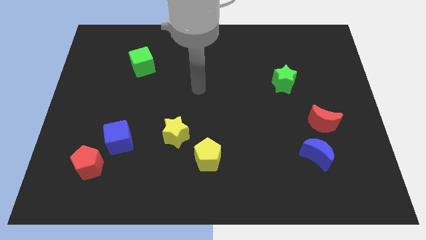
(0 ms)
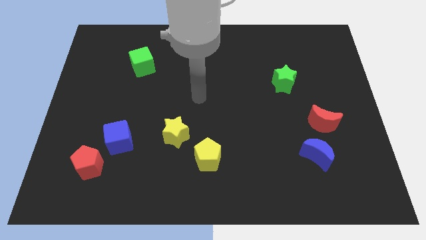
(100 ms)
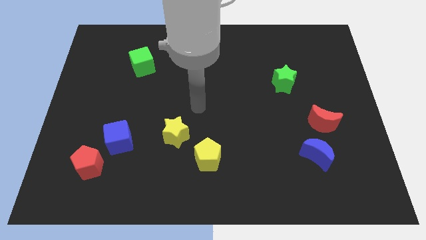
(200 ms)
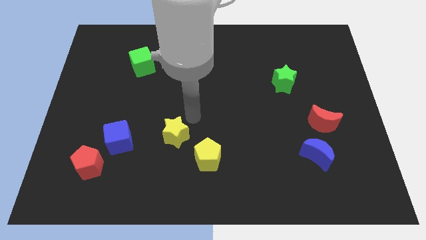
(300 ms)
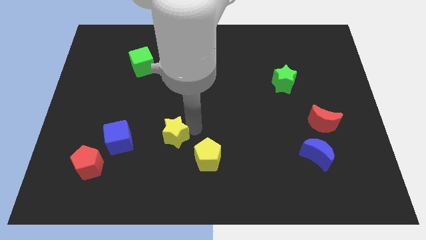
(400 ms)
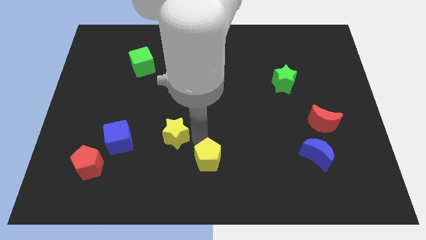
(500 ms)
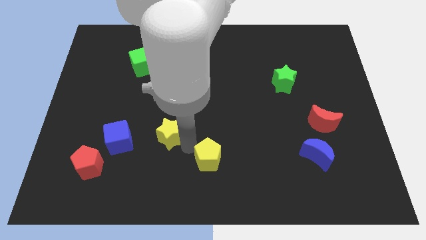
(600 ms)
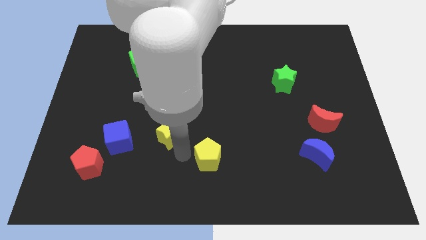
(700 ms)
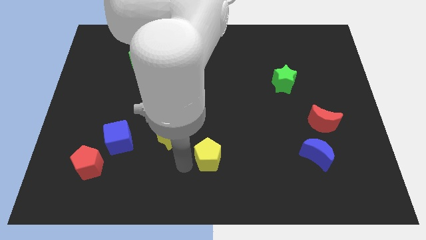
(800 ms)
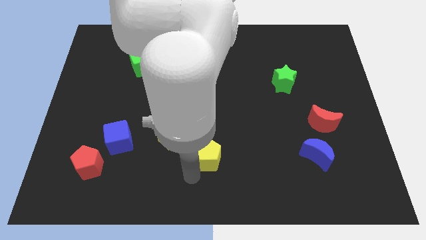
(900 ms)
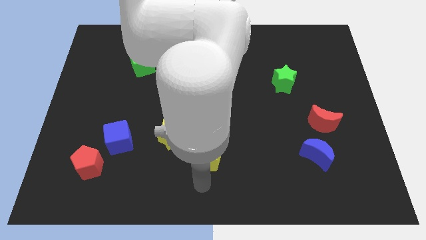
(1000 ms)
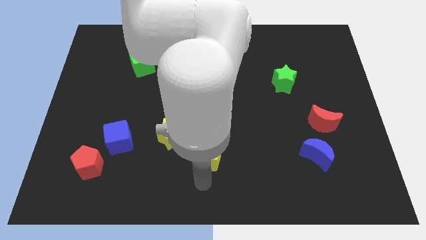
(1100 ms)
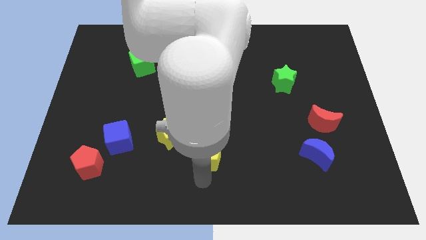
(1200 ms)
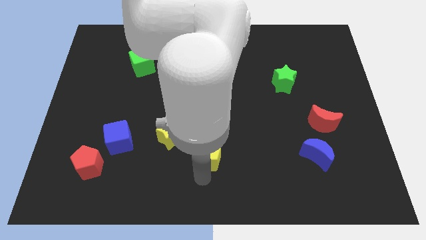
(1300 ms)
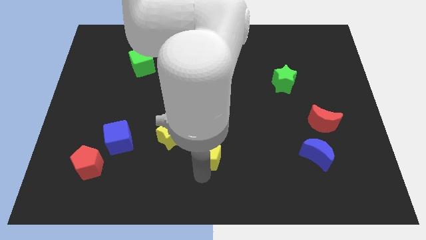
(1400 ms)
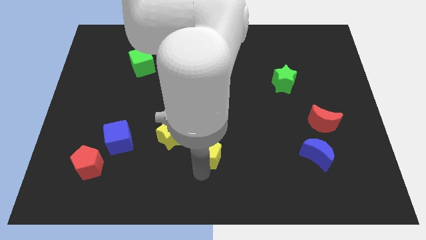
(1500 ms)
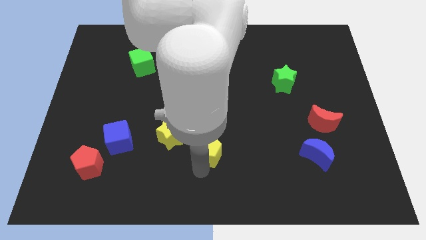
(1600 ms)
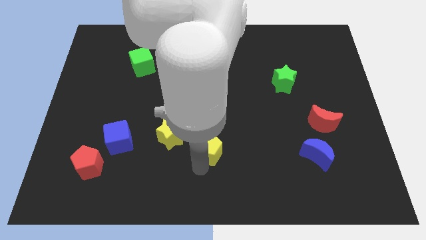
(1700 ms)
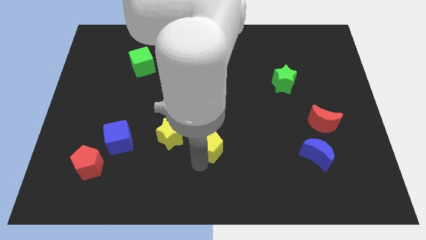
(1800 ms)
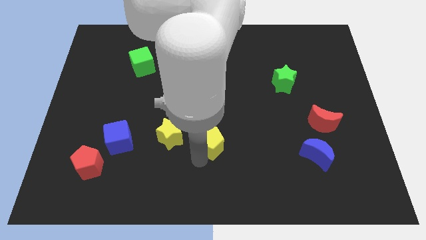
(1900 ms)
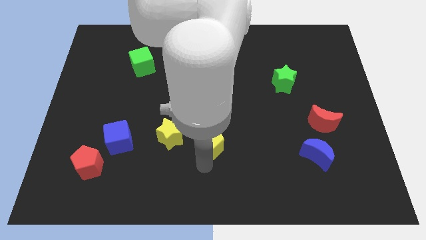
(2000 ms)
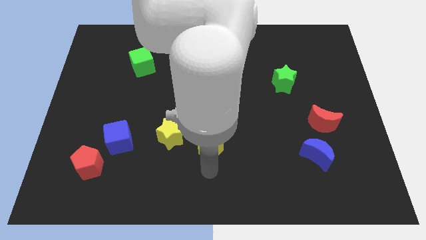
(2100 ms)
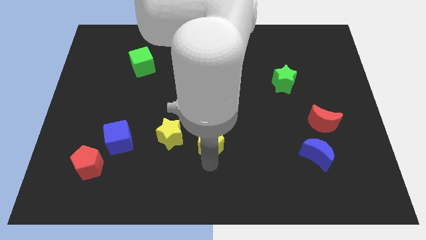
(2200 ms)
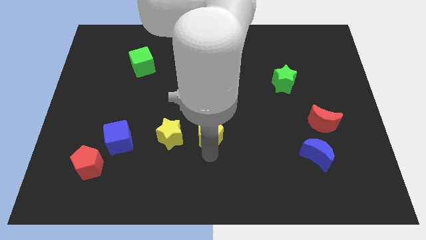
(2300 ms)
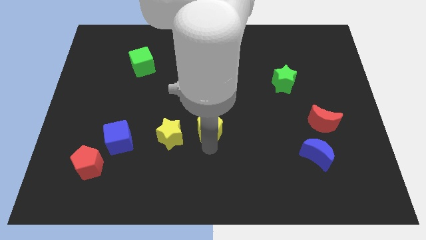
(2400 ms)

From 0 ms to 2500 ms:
slightly push the yellow pentagon upwards

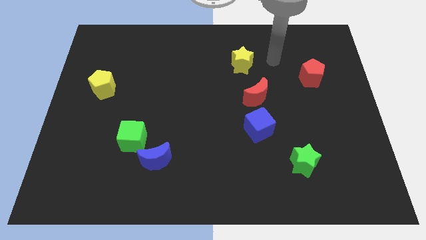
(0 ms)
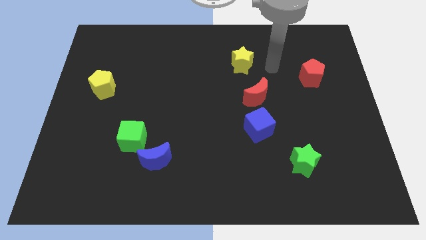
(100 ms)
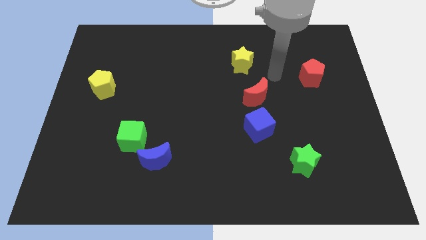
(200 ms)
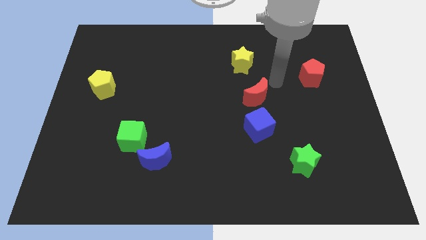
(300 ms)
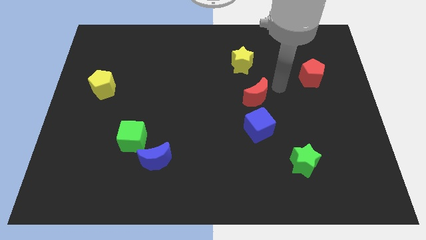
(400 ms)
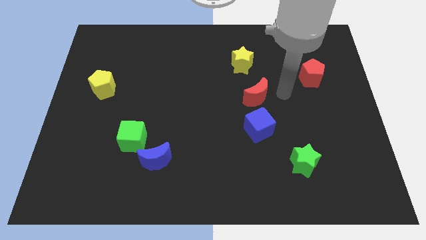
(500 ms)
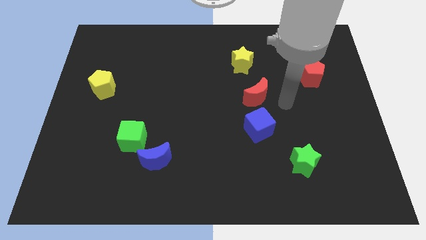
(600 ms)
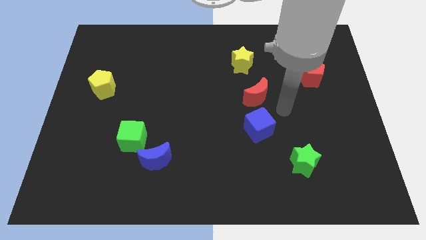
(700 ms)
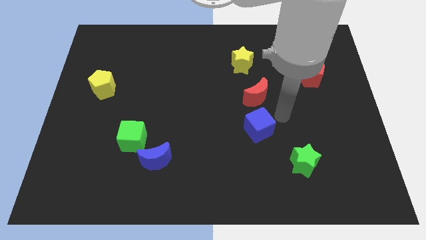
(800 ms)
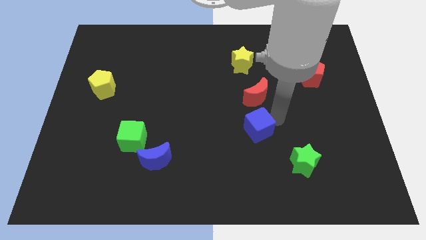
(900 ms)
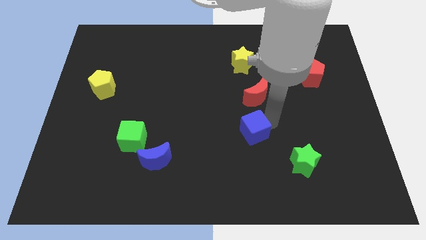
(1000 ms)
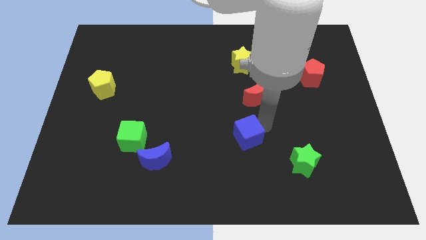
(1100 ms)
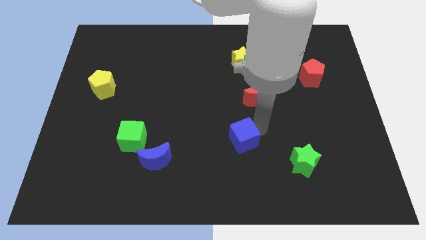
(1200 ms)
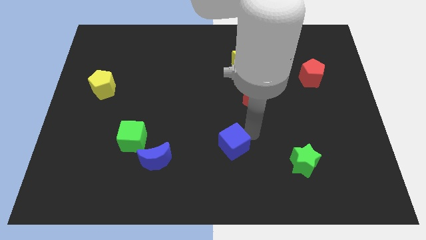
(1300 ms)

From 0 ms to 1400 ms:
slide the blue cube down and then to the left slightly

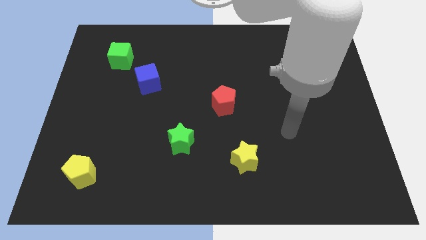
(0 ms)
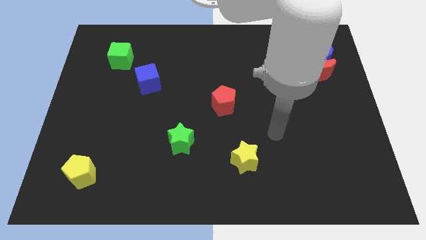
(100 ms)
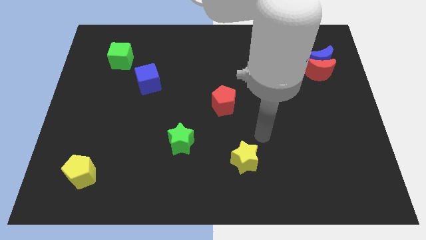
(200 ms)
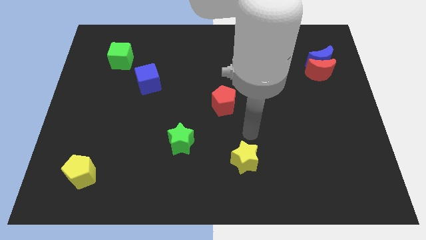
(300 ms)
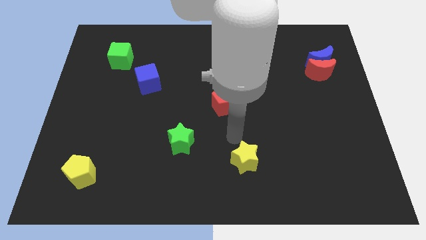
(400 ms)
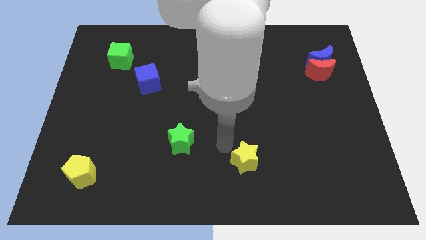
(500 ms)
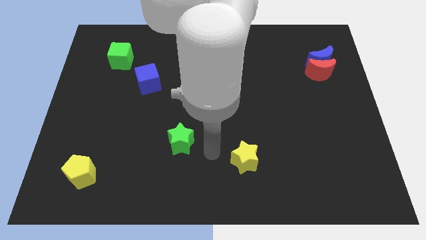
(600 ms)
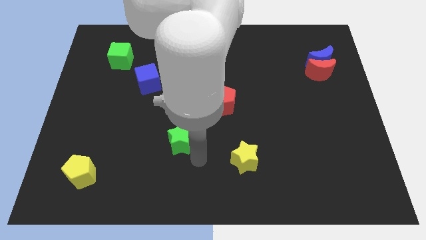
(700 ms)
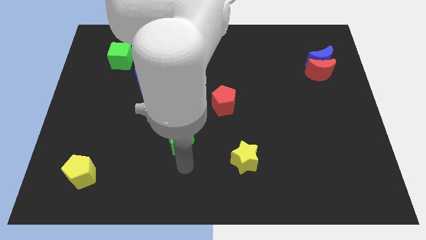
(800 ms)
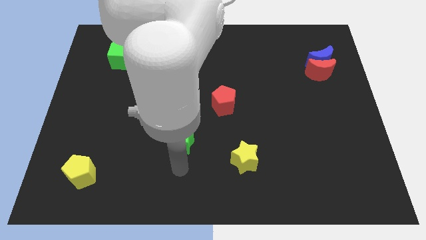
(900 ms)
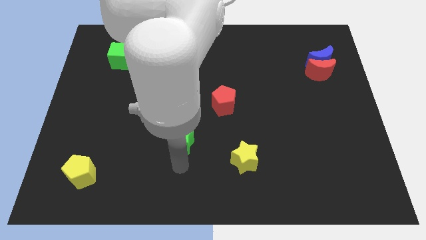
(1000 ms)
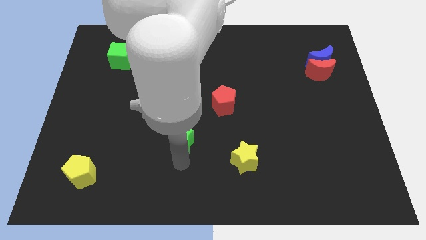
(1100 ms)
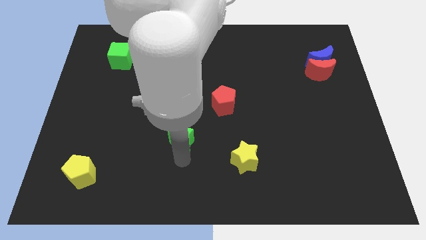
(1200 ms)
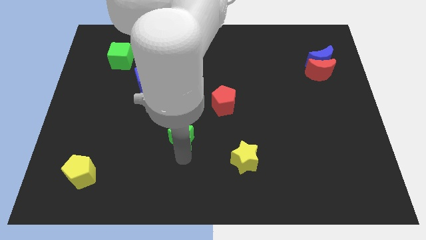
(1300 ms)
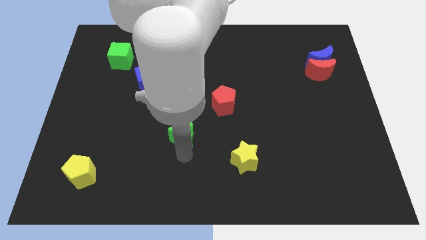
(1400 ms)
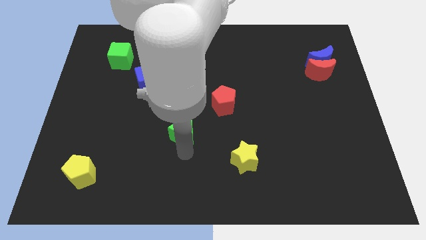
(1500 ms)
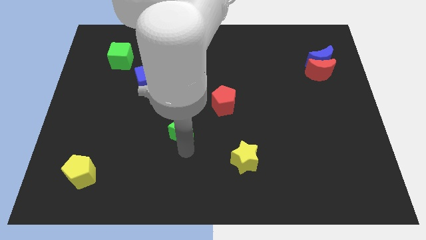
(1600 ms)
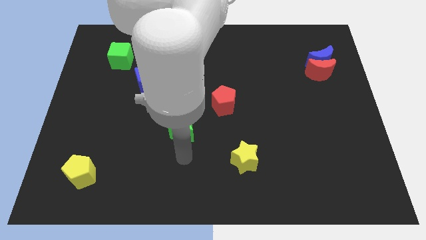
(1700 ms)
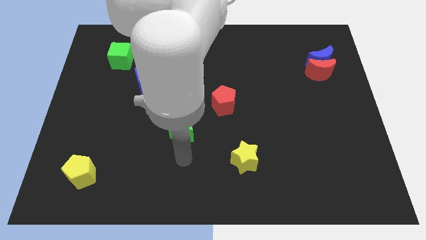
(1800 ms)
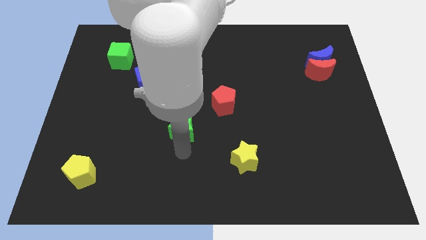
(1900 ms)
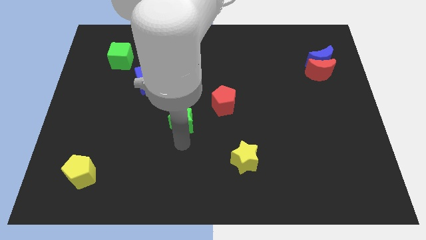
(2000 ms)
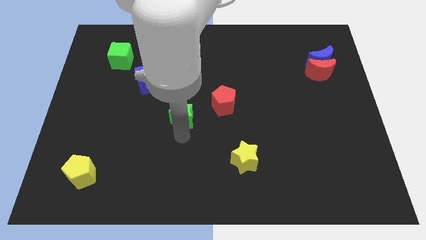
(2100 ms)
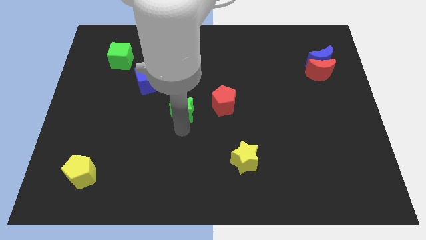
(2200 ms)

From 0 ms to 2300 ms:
push the green star slightly upwards

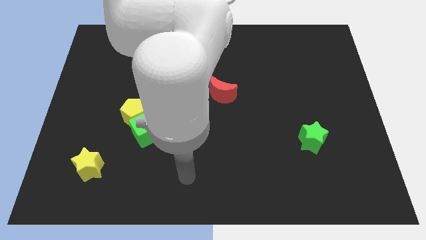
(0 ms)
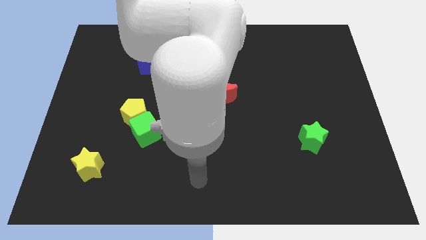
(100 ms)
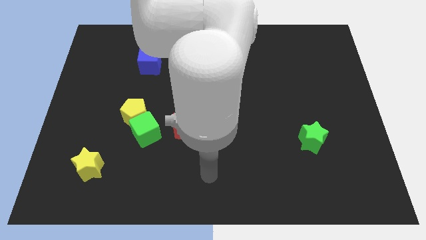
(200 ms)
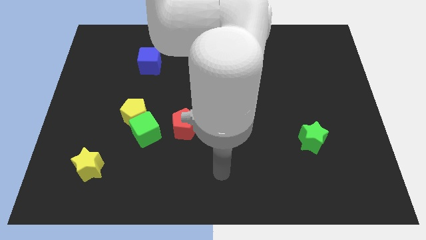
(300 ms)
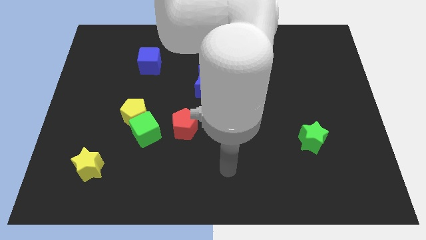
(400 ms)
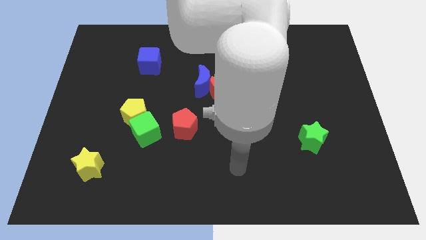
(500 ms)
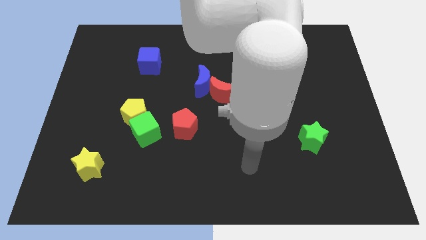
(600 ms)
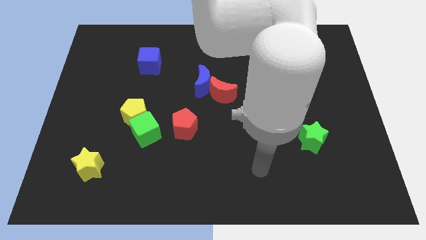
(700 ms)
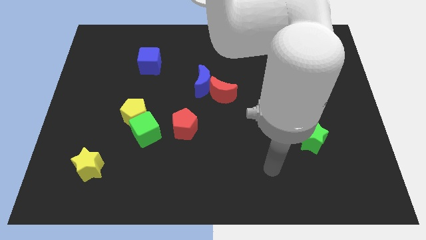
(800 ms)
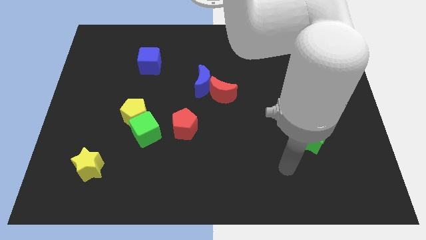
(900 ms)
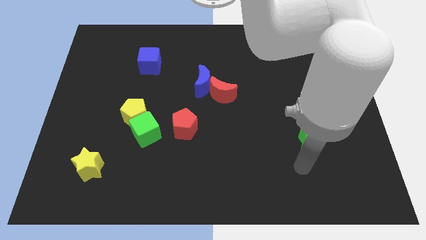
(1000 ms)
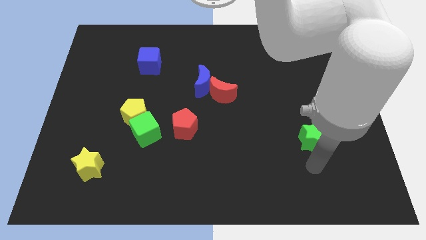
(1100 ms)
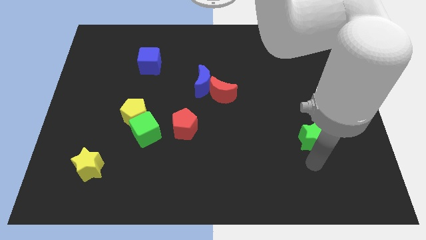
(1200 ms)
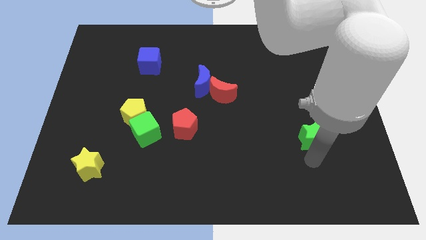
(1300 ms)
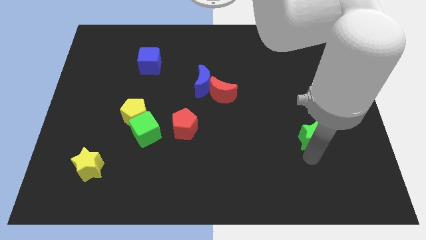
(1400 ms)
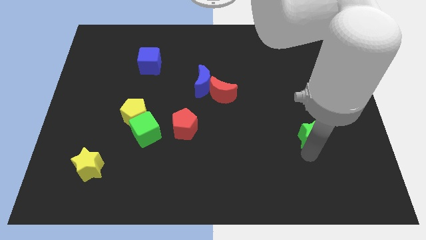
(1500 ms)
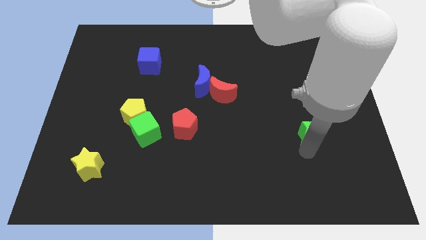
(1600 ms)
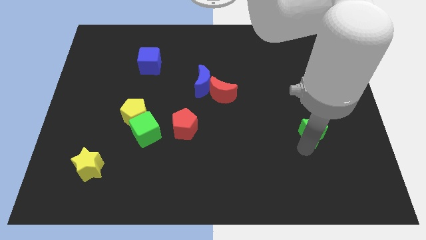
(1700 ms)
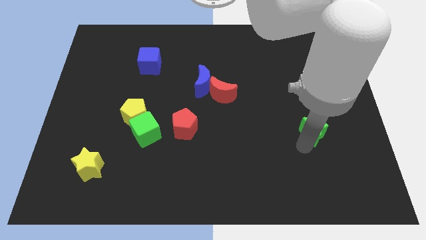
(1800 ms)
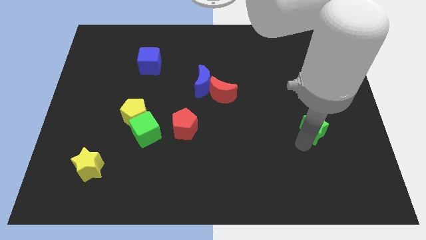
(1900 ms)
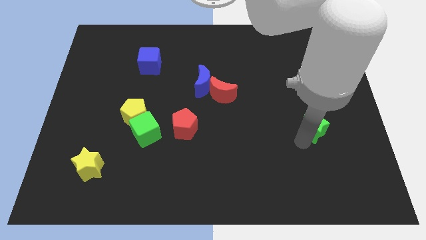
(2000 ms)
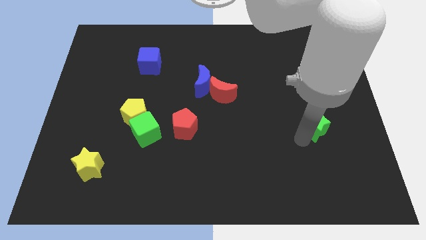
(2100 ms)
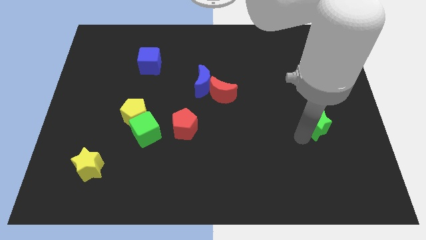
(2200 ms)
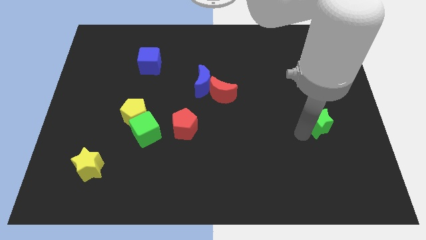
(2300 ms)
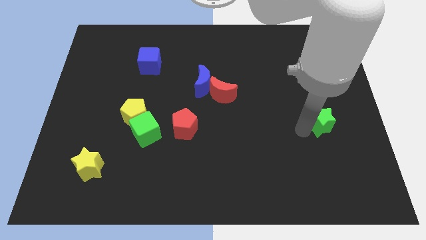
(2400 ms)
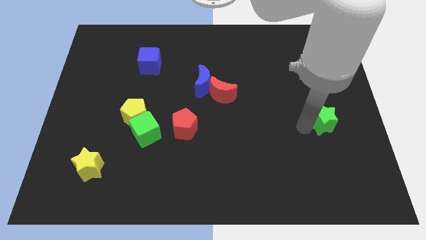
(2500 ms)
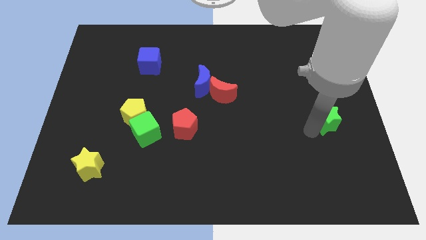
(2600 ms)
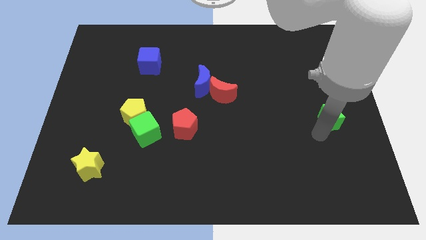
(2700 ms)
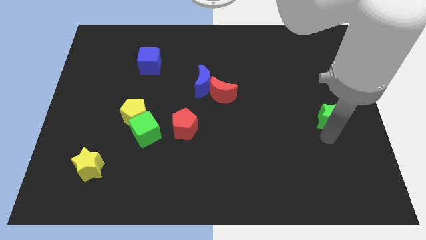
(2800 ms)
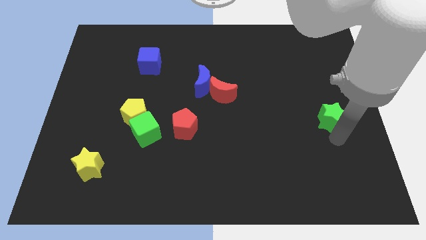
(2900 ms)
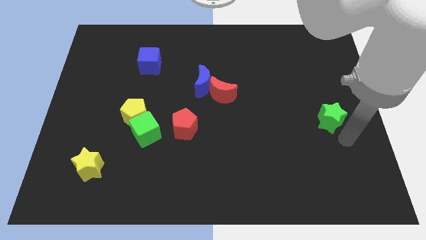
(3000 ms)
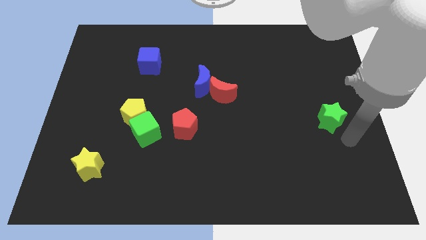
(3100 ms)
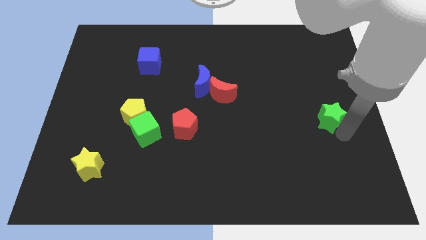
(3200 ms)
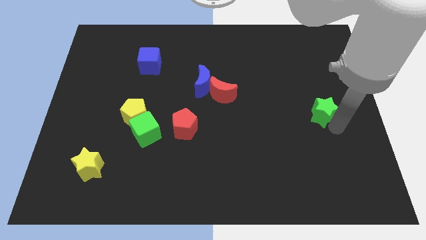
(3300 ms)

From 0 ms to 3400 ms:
slide the green star a bit up
